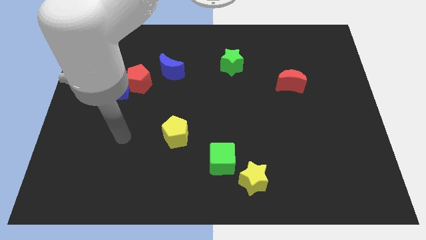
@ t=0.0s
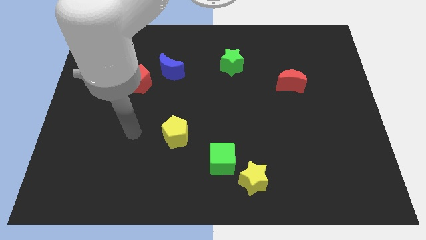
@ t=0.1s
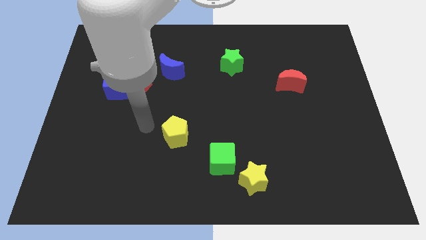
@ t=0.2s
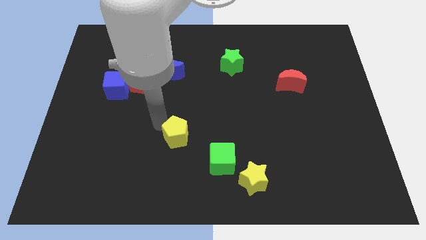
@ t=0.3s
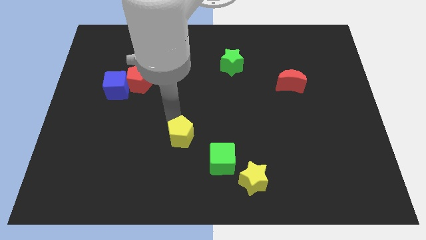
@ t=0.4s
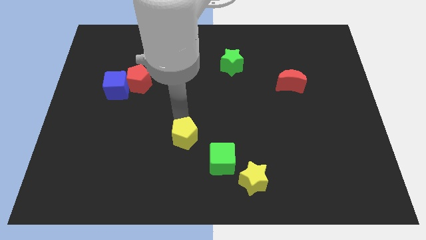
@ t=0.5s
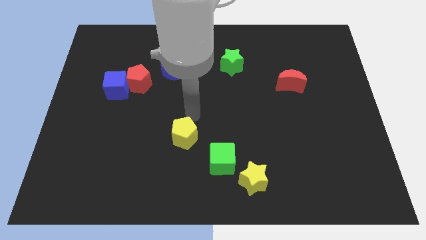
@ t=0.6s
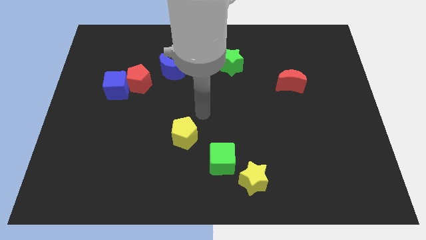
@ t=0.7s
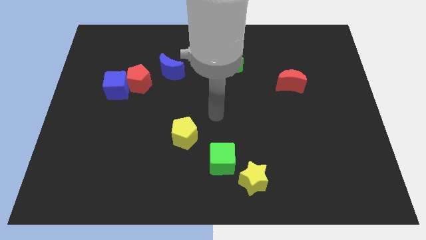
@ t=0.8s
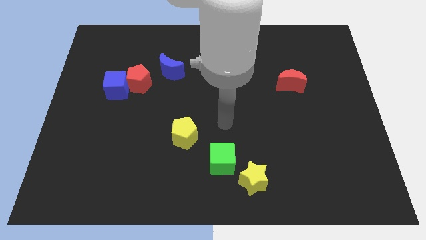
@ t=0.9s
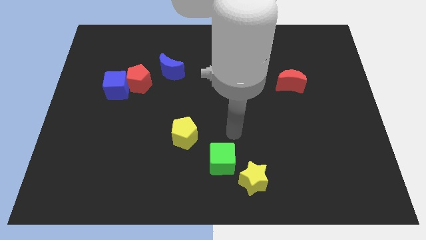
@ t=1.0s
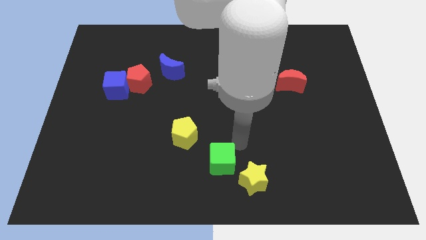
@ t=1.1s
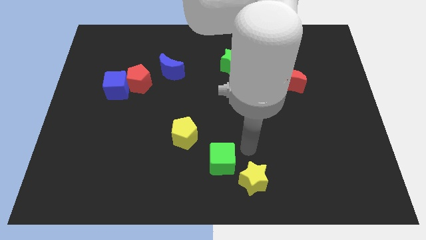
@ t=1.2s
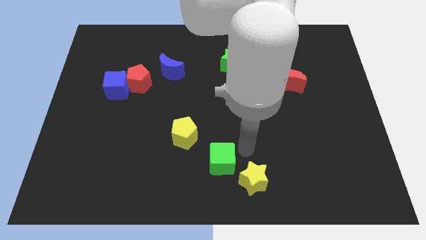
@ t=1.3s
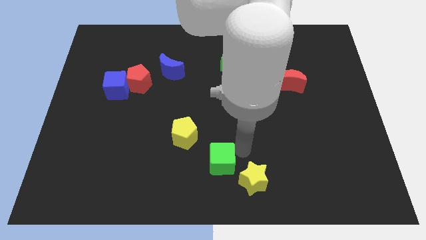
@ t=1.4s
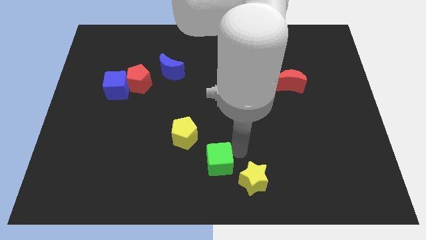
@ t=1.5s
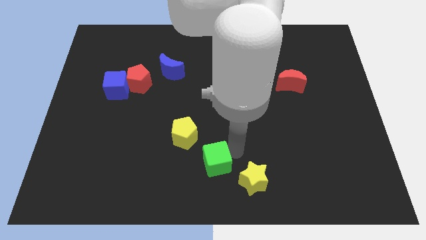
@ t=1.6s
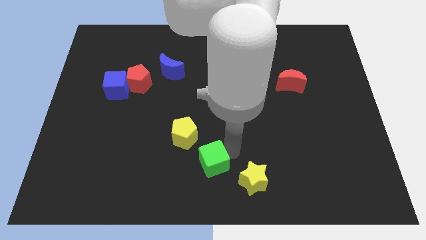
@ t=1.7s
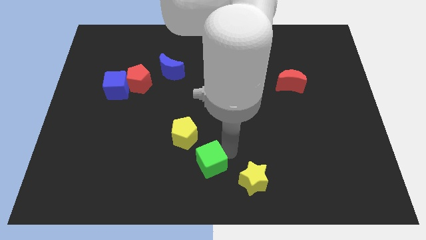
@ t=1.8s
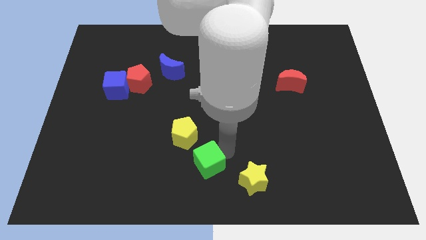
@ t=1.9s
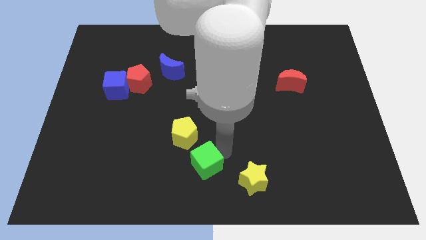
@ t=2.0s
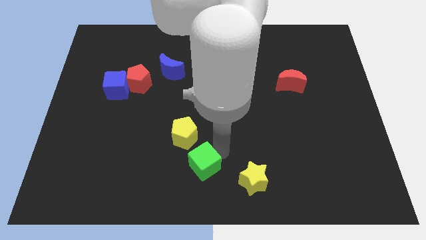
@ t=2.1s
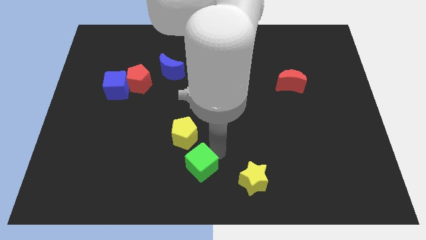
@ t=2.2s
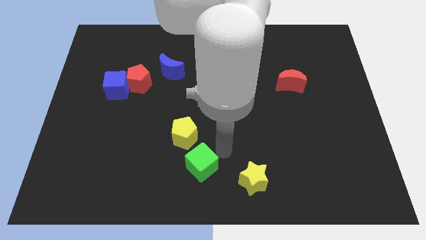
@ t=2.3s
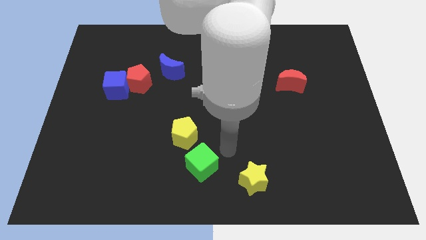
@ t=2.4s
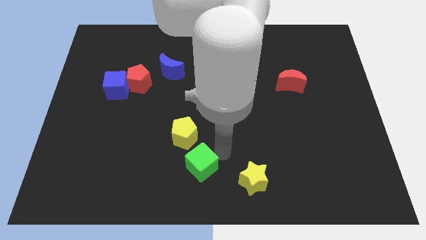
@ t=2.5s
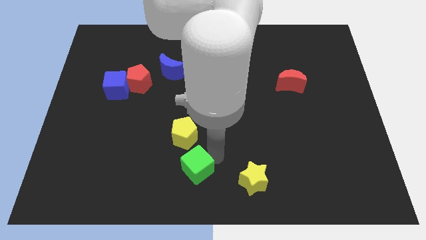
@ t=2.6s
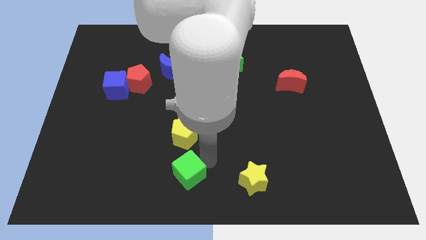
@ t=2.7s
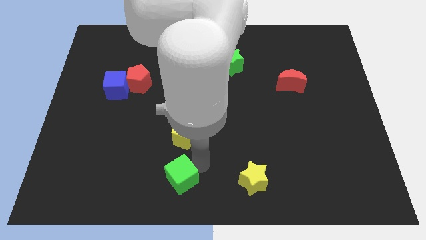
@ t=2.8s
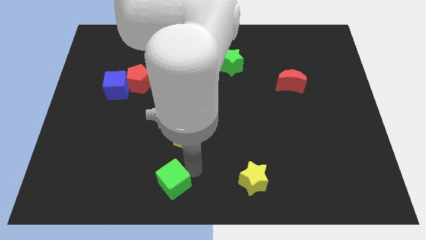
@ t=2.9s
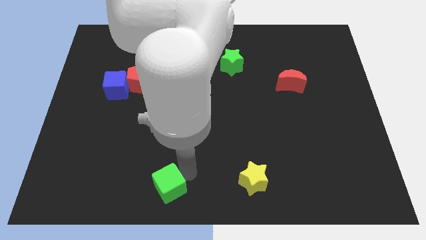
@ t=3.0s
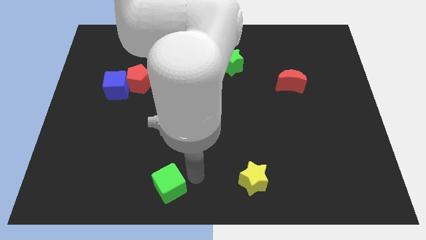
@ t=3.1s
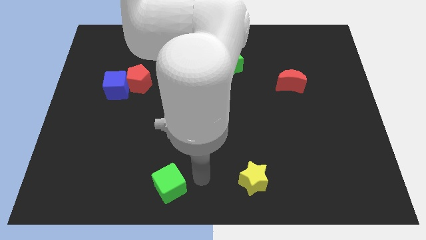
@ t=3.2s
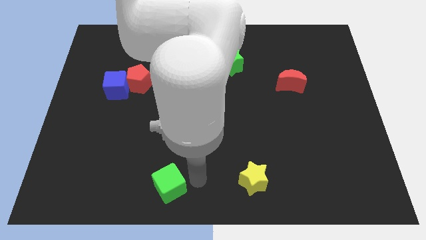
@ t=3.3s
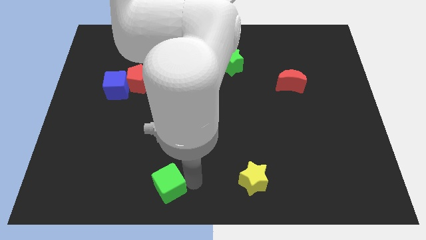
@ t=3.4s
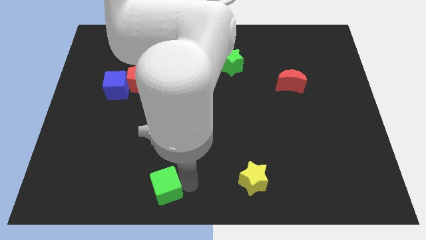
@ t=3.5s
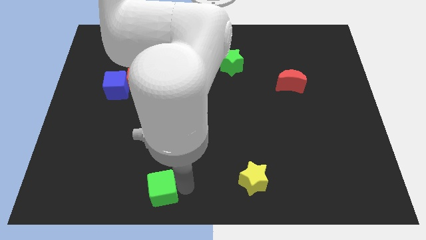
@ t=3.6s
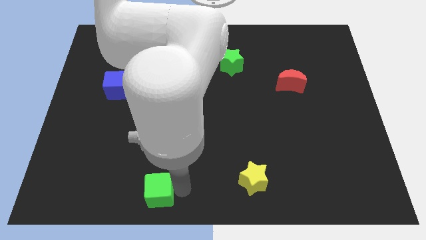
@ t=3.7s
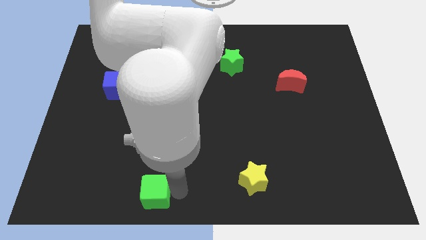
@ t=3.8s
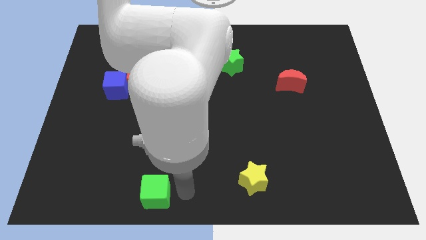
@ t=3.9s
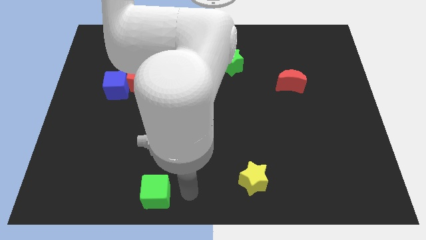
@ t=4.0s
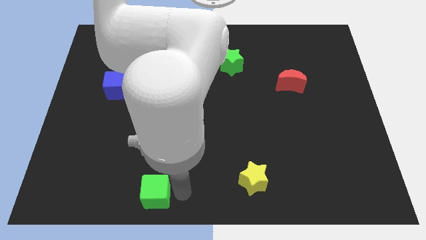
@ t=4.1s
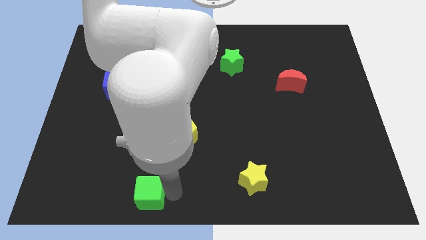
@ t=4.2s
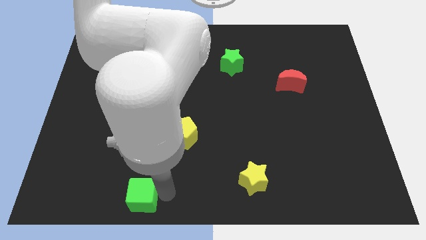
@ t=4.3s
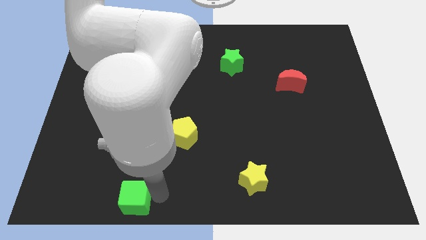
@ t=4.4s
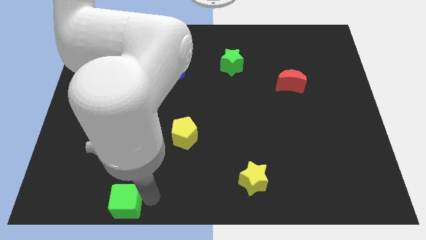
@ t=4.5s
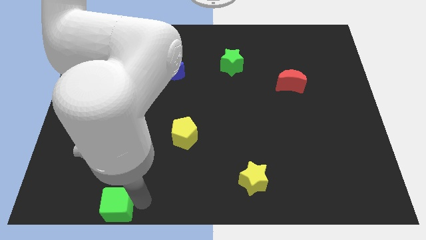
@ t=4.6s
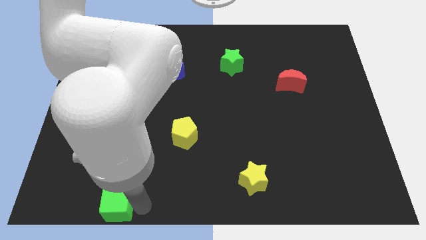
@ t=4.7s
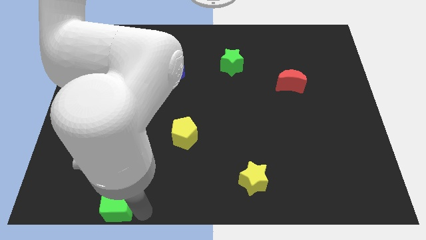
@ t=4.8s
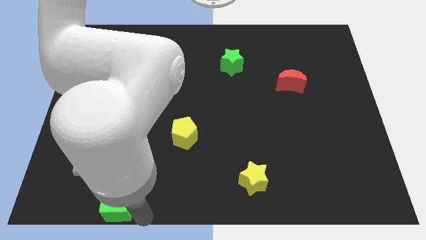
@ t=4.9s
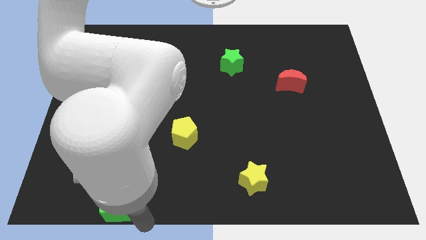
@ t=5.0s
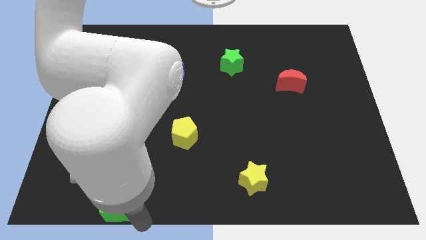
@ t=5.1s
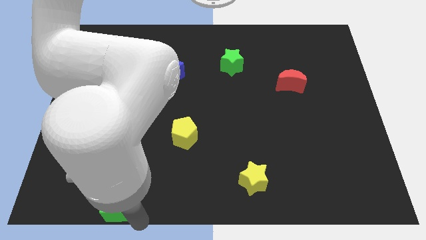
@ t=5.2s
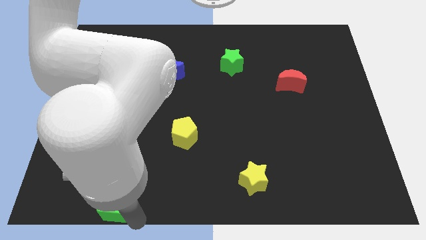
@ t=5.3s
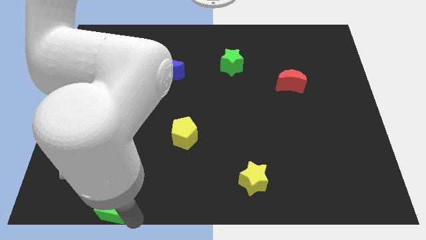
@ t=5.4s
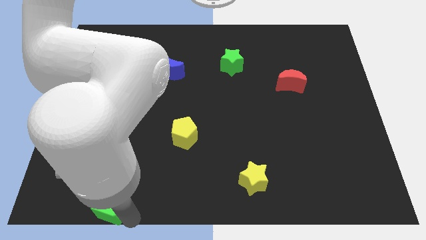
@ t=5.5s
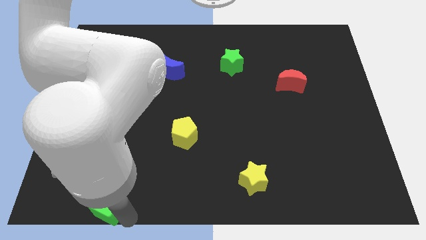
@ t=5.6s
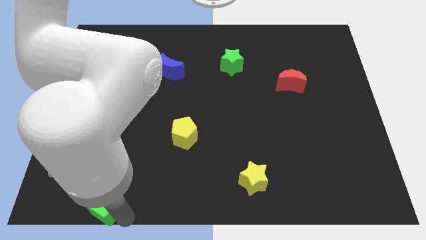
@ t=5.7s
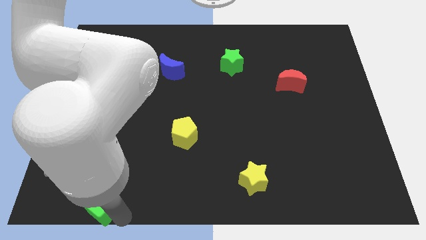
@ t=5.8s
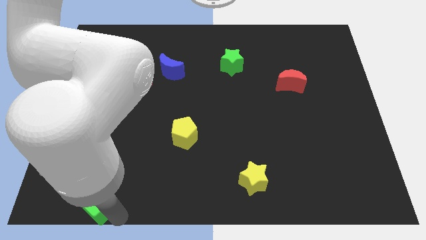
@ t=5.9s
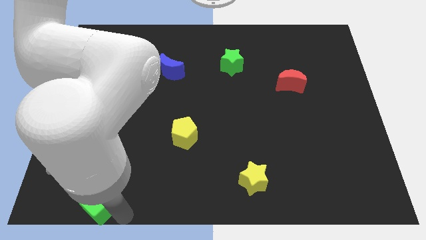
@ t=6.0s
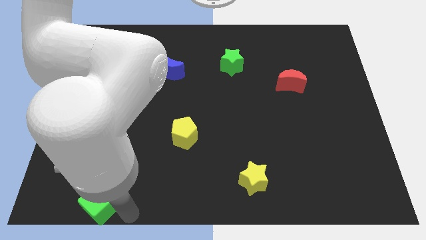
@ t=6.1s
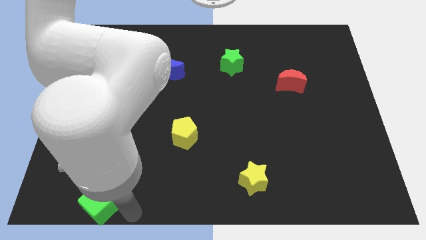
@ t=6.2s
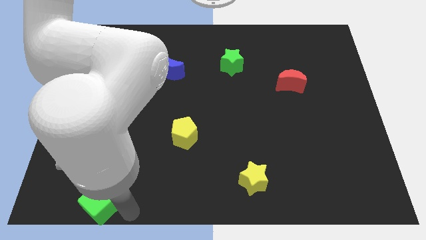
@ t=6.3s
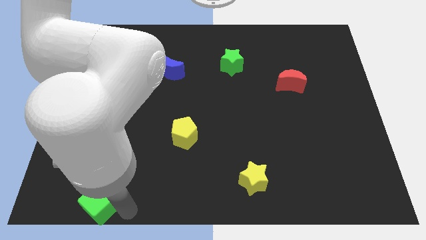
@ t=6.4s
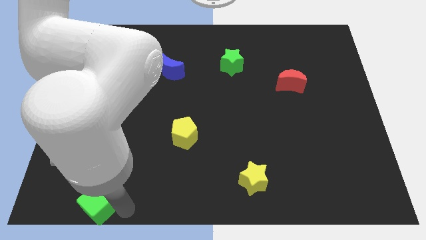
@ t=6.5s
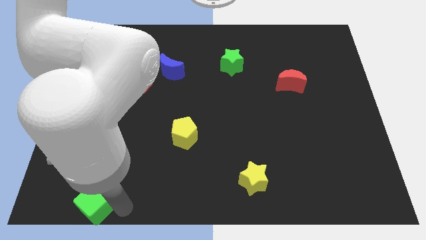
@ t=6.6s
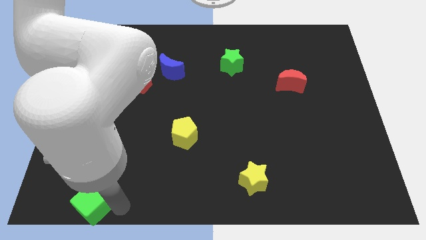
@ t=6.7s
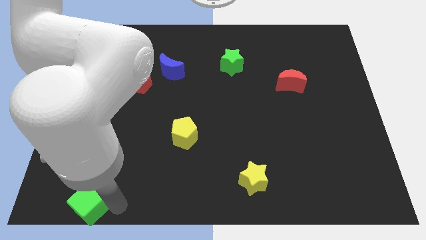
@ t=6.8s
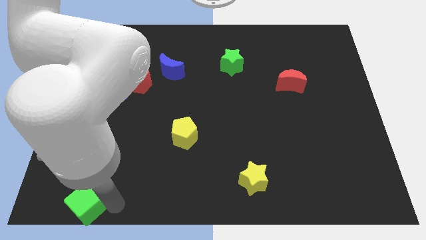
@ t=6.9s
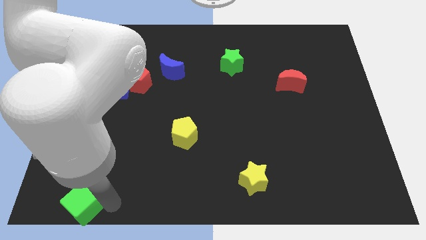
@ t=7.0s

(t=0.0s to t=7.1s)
slide the green cube to the bottom left of the board
